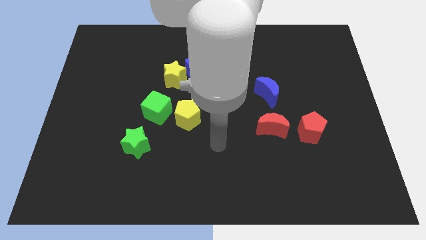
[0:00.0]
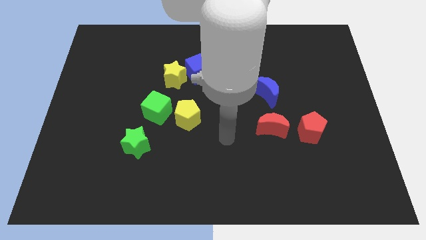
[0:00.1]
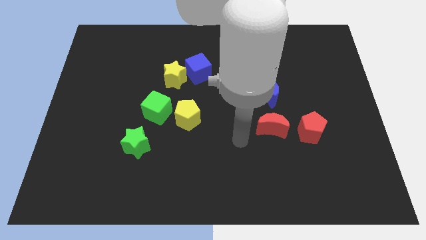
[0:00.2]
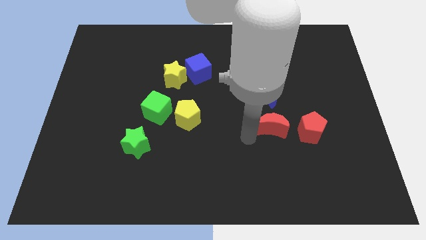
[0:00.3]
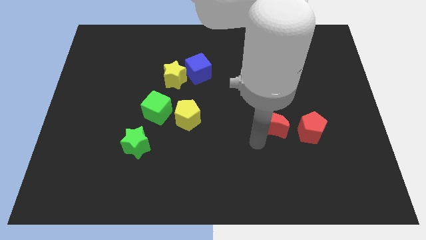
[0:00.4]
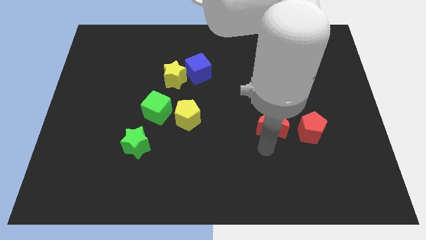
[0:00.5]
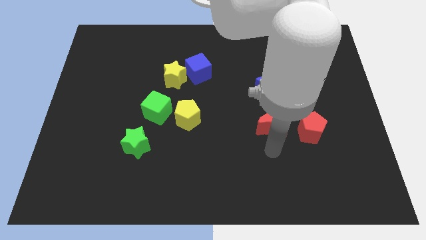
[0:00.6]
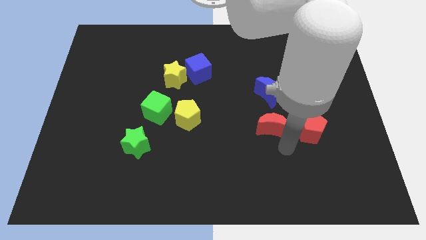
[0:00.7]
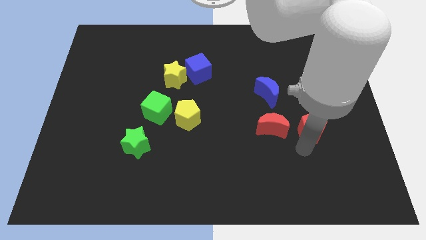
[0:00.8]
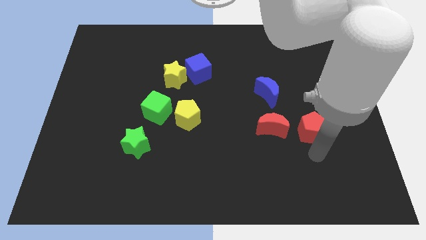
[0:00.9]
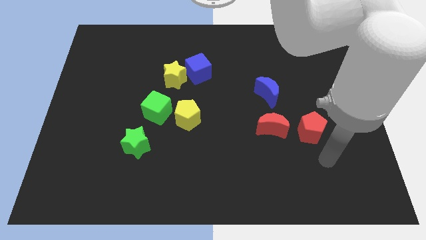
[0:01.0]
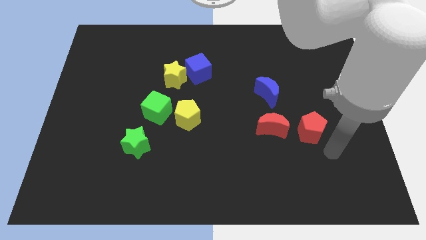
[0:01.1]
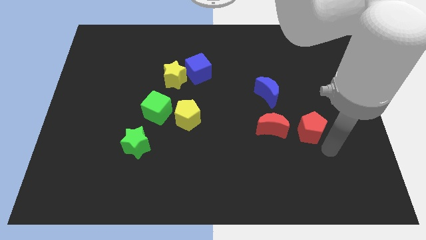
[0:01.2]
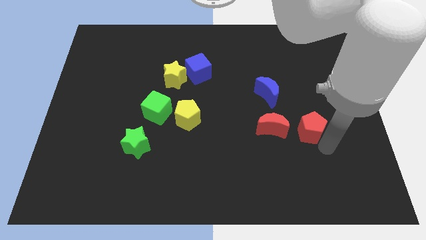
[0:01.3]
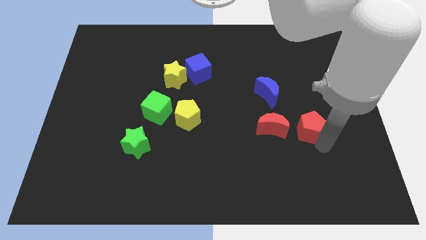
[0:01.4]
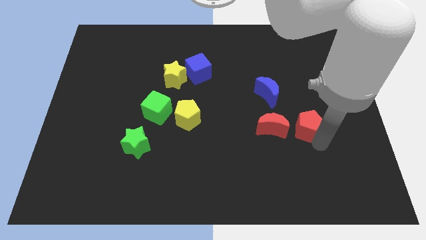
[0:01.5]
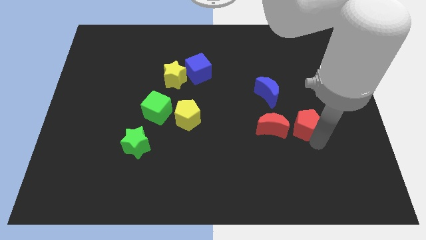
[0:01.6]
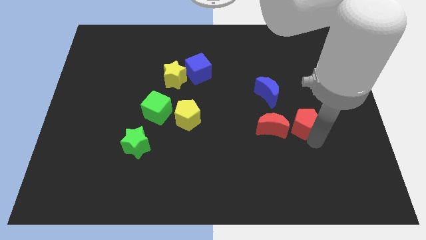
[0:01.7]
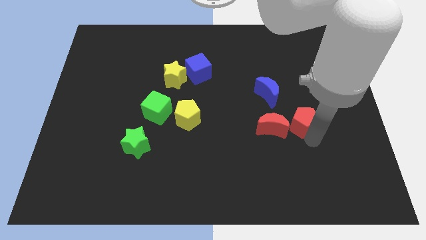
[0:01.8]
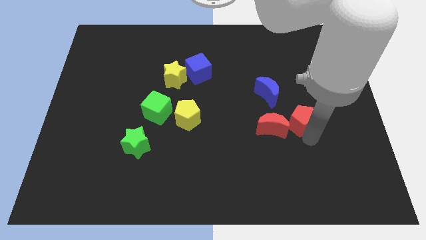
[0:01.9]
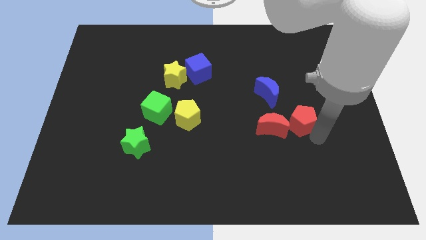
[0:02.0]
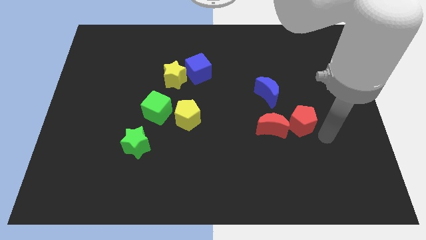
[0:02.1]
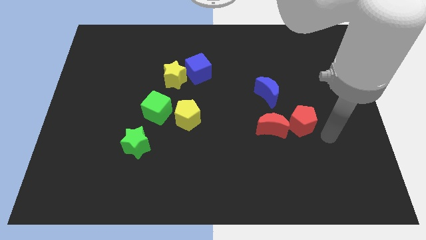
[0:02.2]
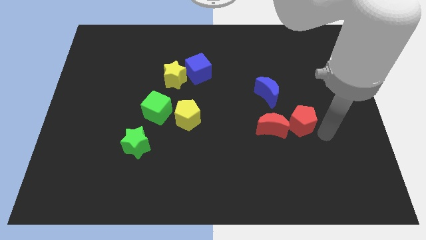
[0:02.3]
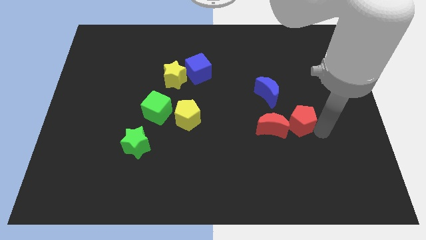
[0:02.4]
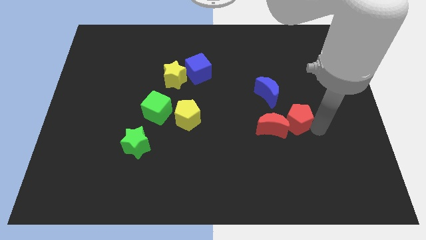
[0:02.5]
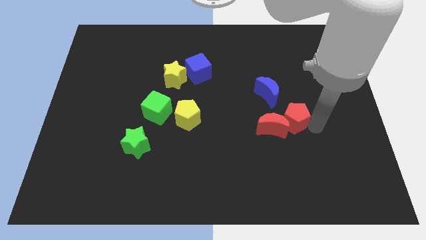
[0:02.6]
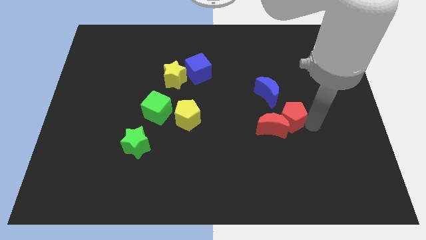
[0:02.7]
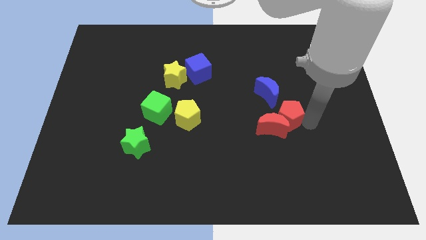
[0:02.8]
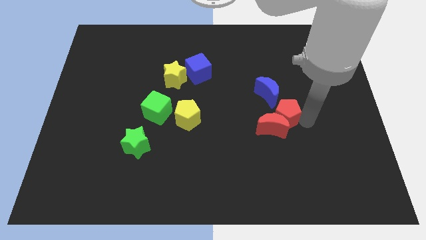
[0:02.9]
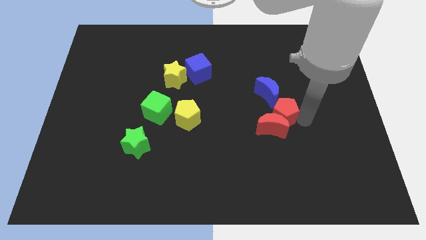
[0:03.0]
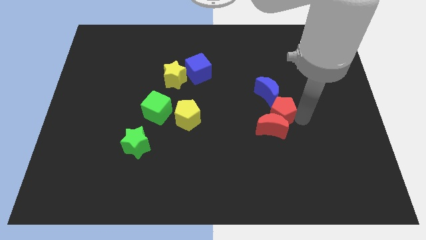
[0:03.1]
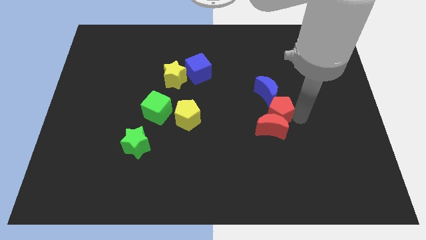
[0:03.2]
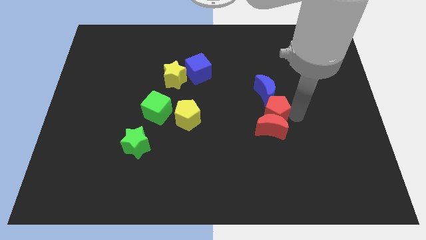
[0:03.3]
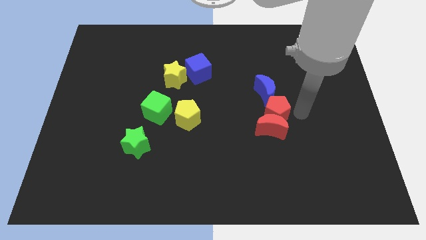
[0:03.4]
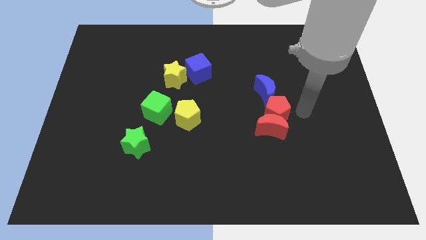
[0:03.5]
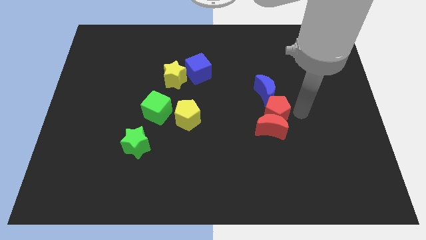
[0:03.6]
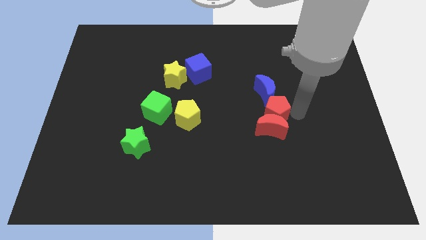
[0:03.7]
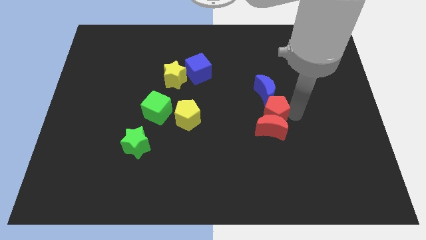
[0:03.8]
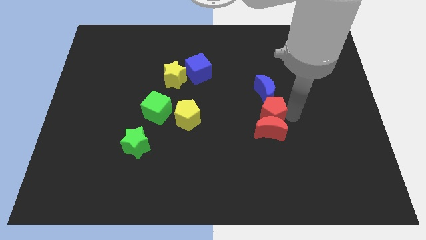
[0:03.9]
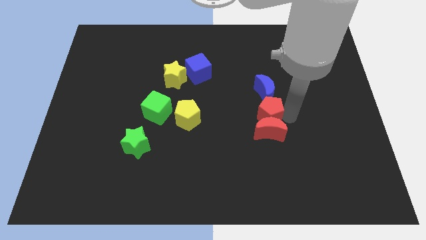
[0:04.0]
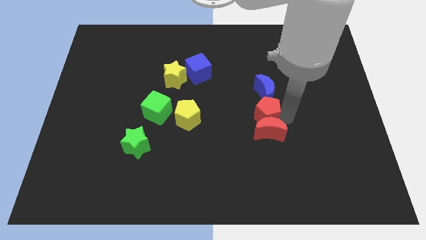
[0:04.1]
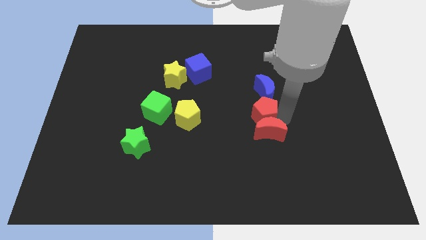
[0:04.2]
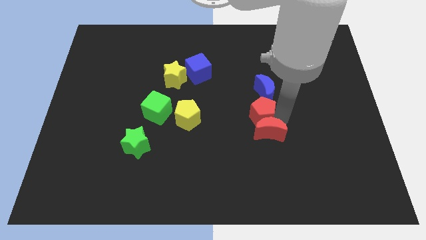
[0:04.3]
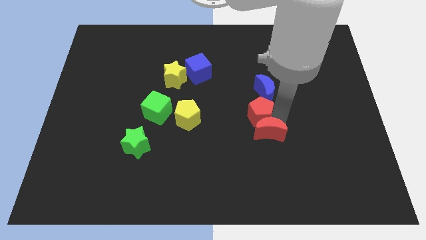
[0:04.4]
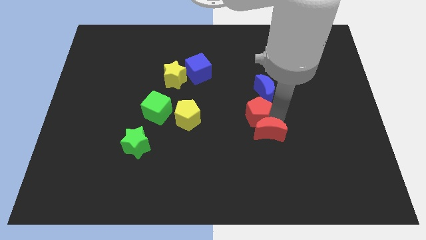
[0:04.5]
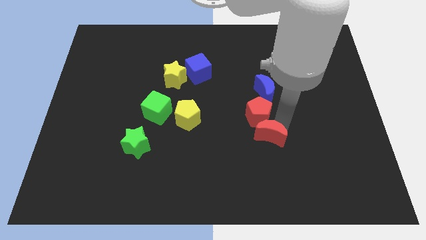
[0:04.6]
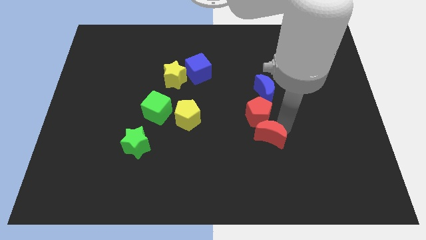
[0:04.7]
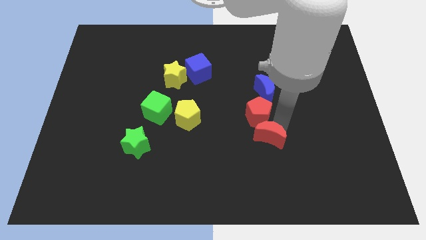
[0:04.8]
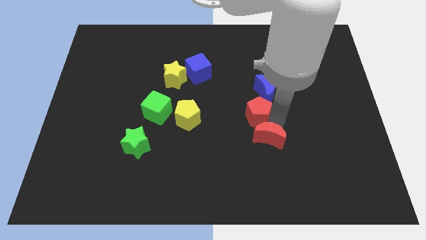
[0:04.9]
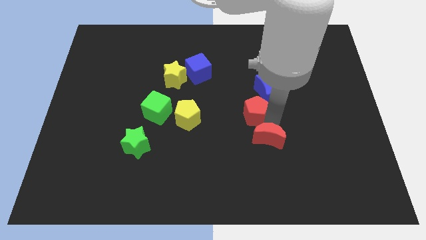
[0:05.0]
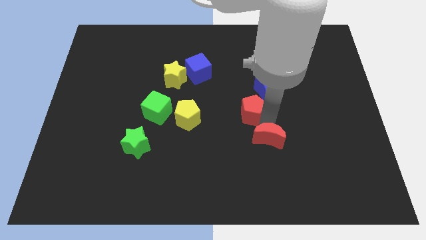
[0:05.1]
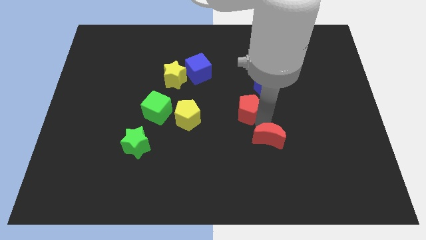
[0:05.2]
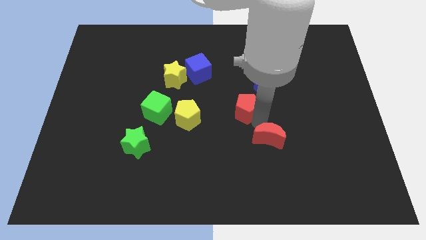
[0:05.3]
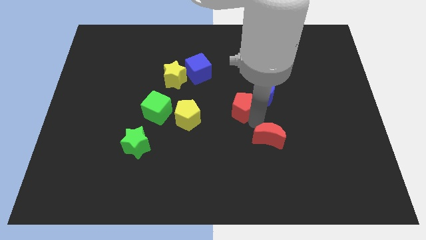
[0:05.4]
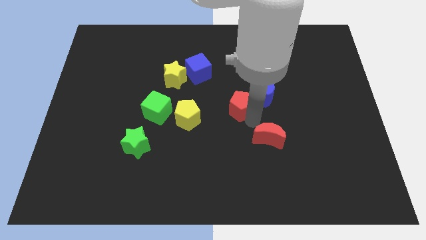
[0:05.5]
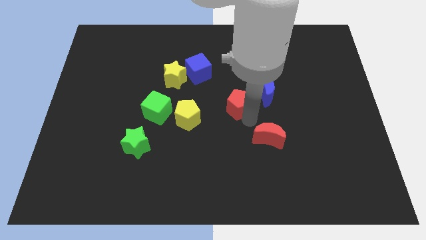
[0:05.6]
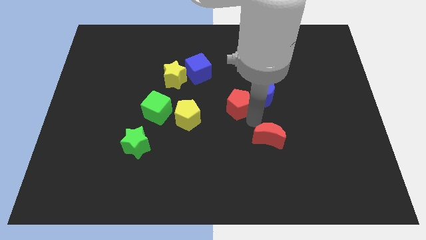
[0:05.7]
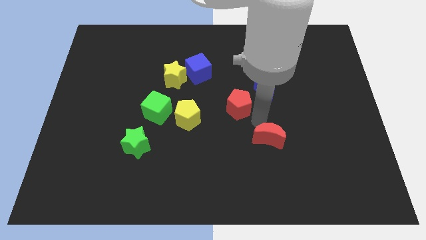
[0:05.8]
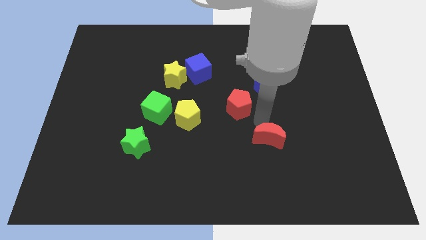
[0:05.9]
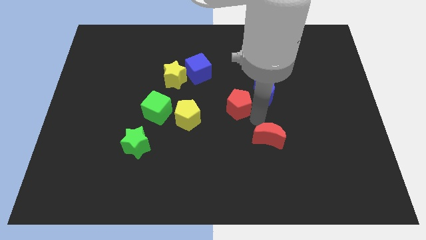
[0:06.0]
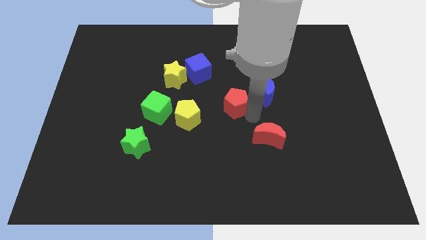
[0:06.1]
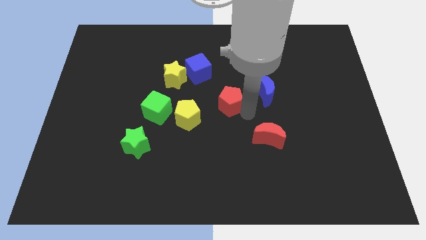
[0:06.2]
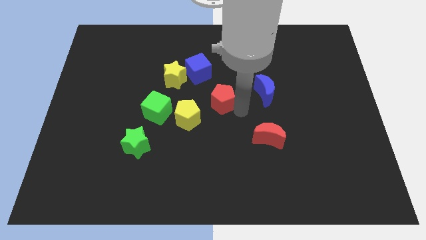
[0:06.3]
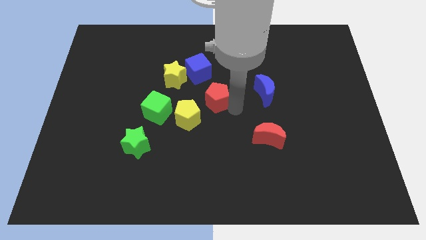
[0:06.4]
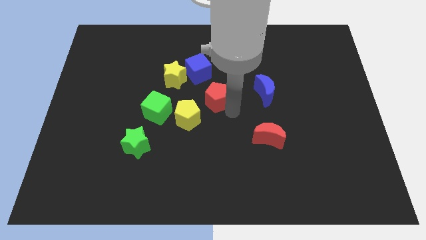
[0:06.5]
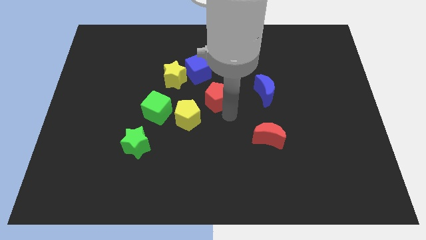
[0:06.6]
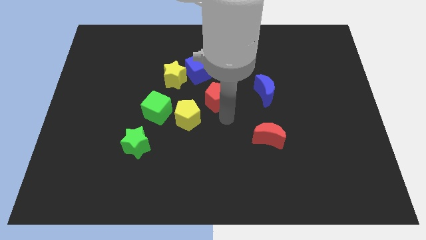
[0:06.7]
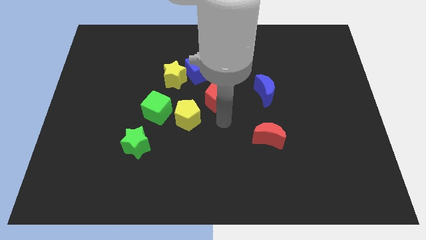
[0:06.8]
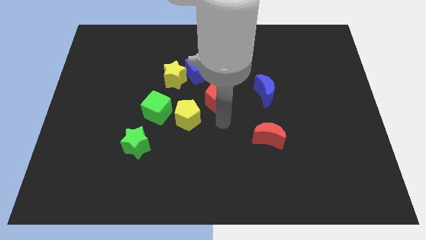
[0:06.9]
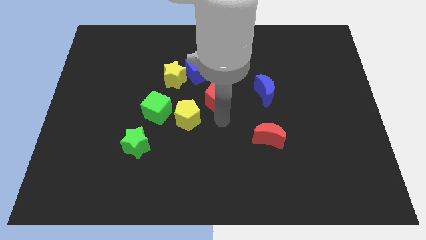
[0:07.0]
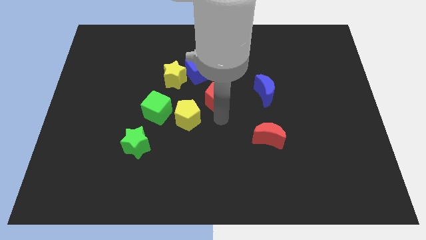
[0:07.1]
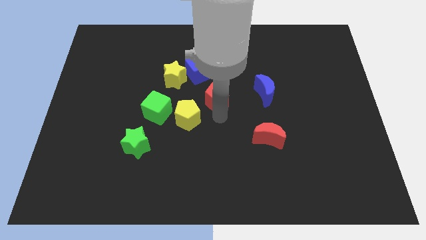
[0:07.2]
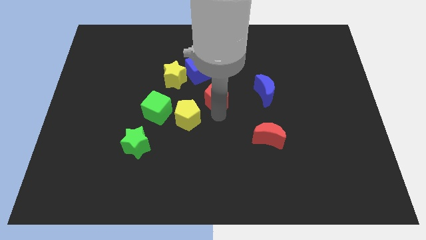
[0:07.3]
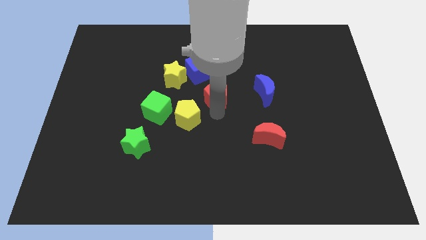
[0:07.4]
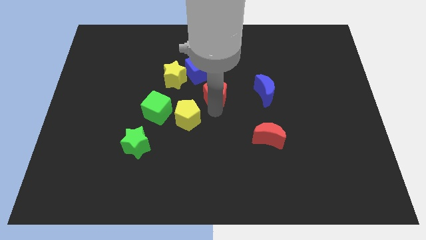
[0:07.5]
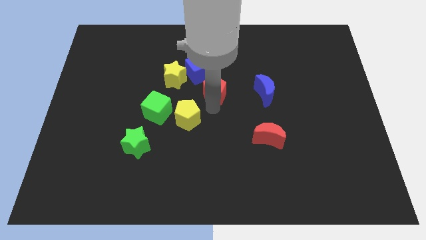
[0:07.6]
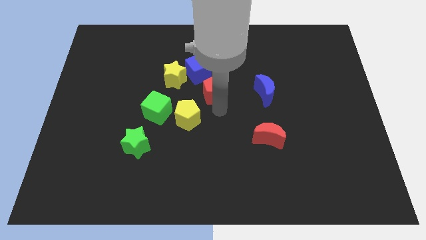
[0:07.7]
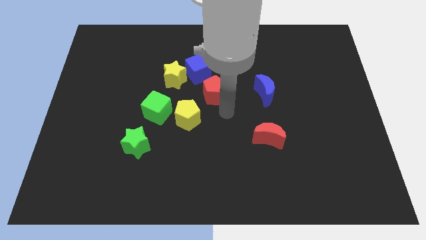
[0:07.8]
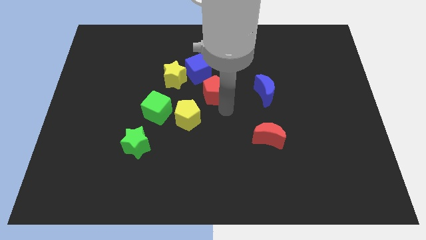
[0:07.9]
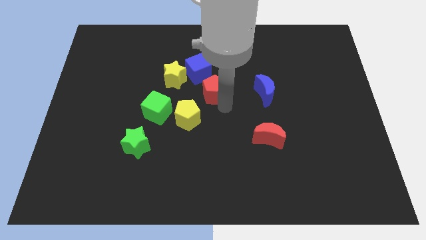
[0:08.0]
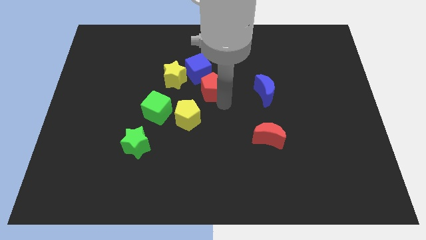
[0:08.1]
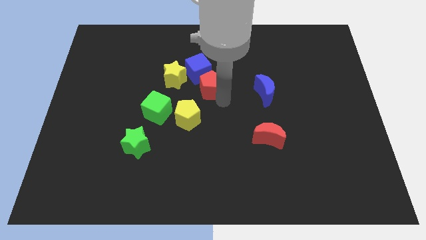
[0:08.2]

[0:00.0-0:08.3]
move the red pentagon next to the blue cube
